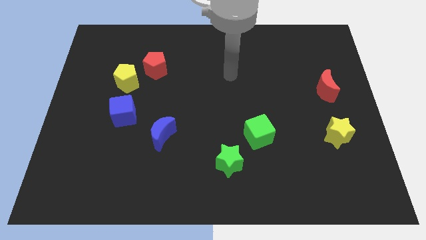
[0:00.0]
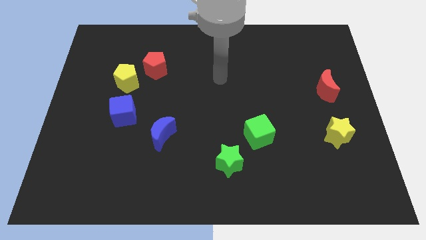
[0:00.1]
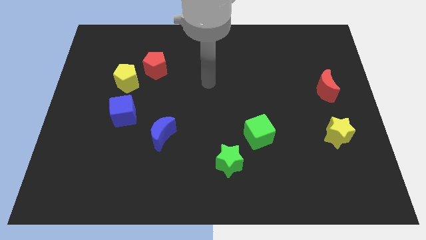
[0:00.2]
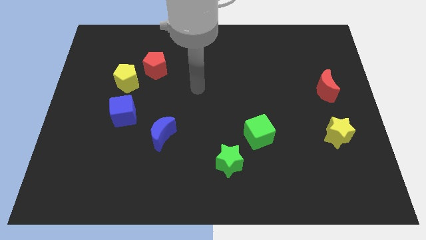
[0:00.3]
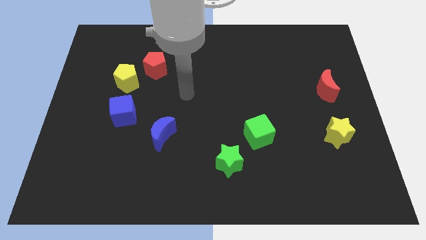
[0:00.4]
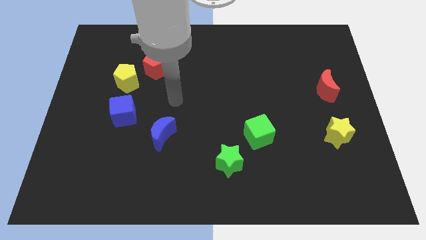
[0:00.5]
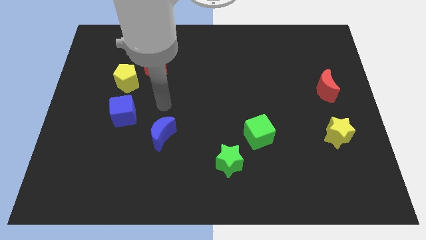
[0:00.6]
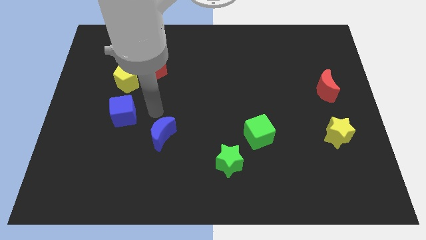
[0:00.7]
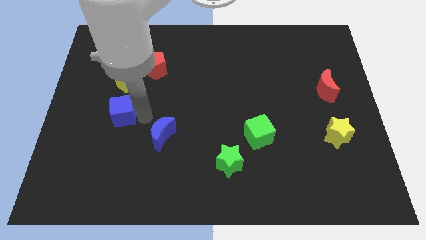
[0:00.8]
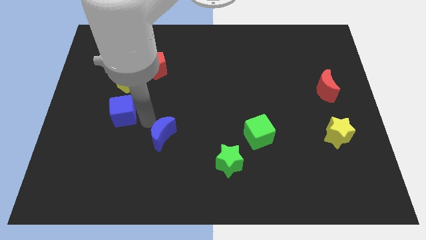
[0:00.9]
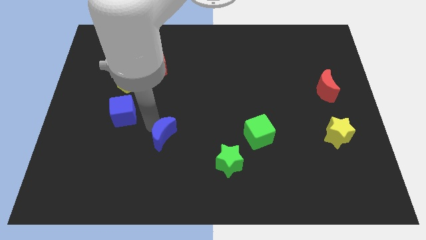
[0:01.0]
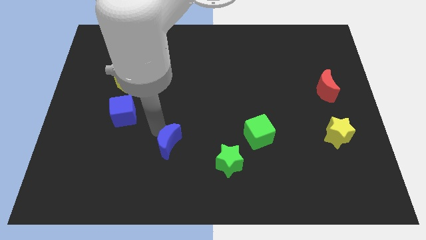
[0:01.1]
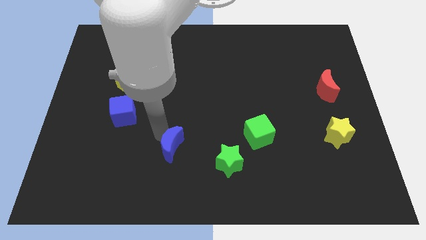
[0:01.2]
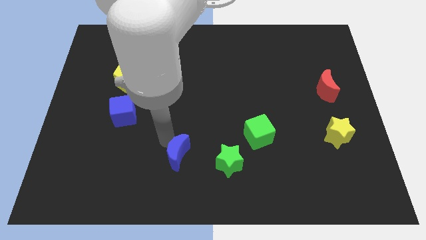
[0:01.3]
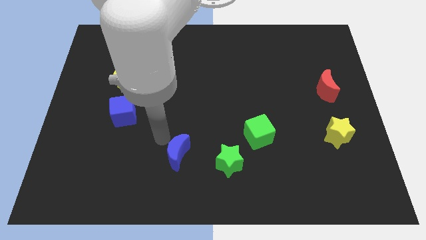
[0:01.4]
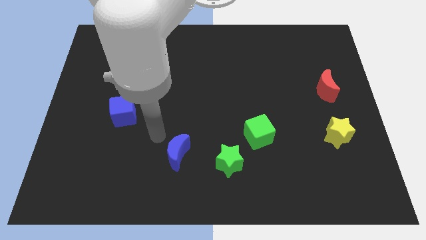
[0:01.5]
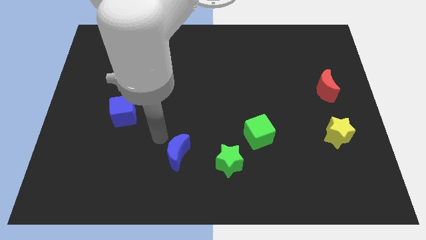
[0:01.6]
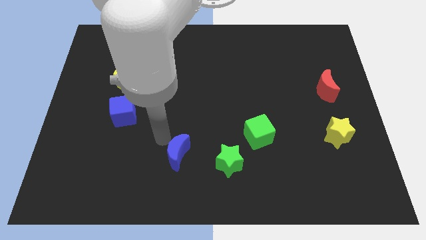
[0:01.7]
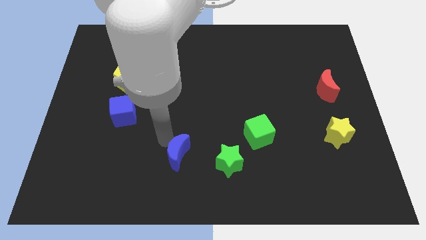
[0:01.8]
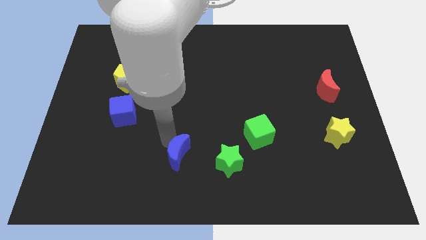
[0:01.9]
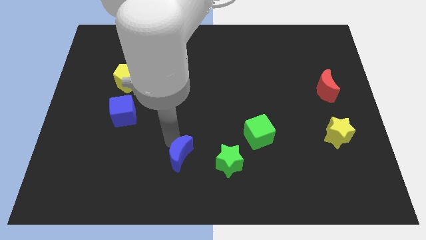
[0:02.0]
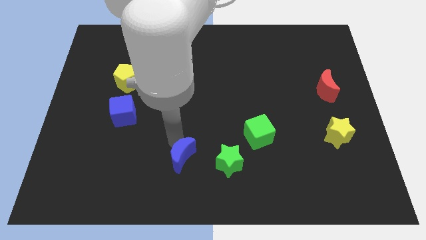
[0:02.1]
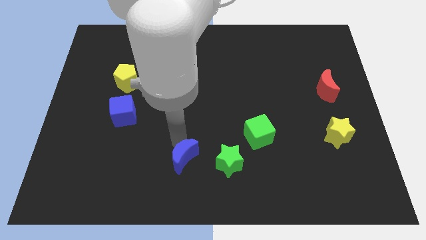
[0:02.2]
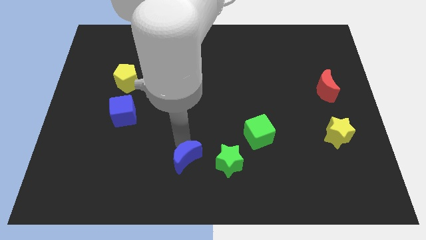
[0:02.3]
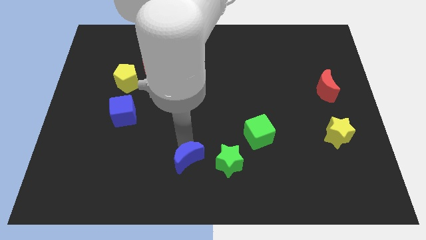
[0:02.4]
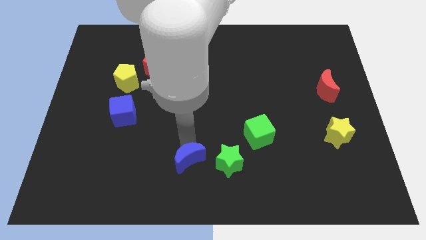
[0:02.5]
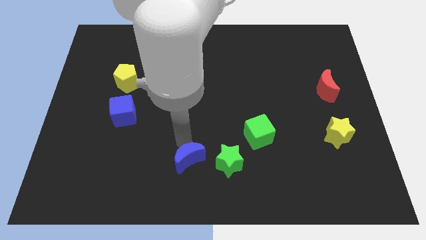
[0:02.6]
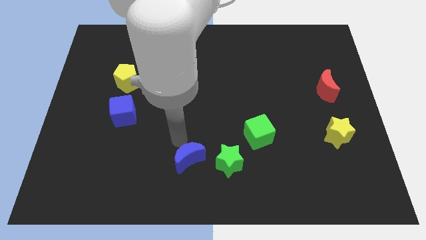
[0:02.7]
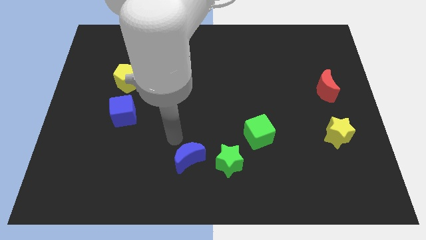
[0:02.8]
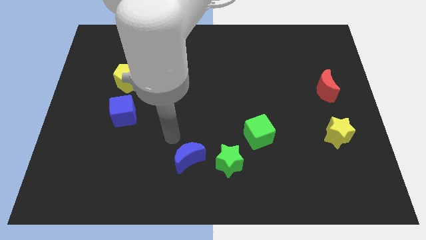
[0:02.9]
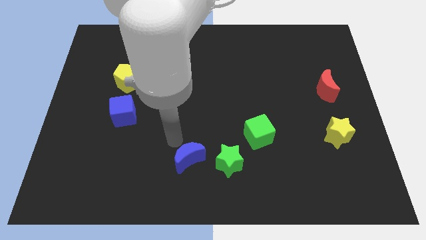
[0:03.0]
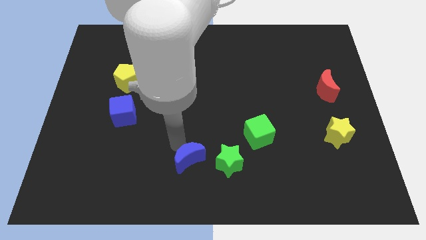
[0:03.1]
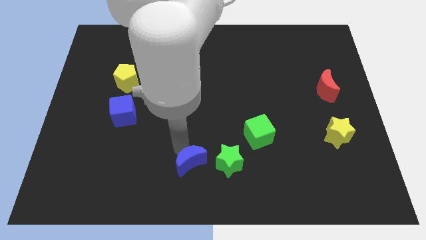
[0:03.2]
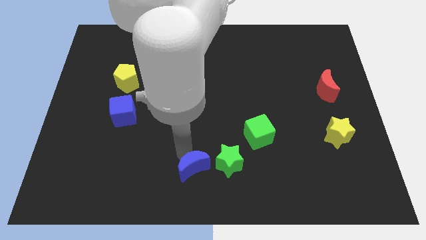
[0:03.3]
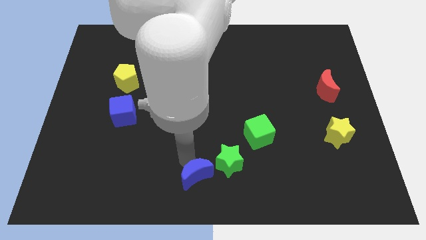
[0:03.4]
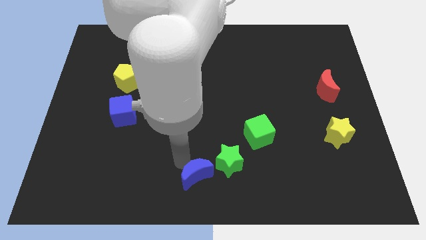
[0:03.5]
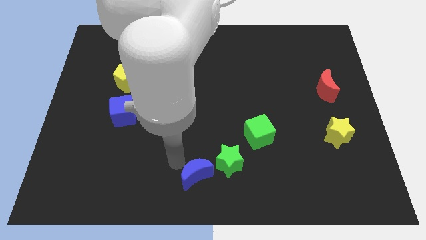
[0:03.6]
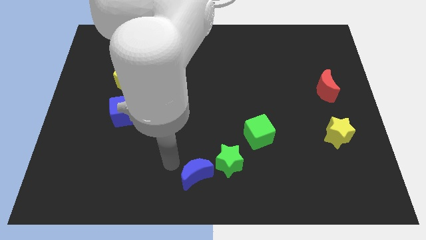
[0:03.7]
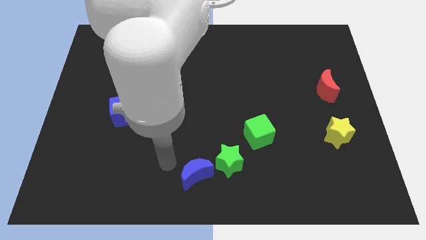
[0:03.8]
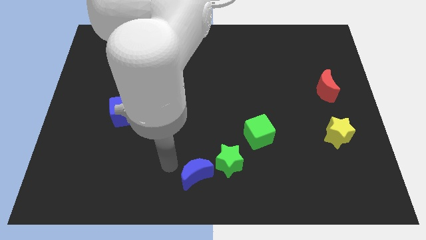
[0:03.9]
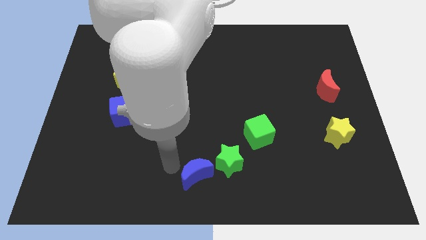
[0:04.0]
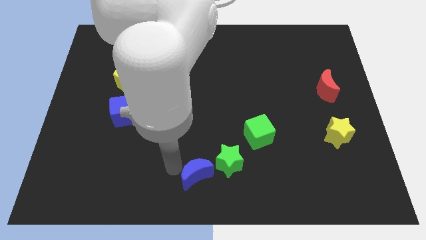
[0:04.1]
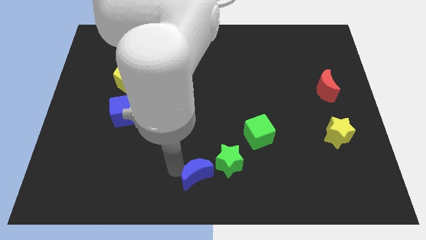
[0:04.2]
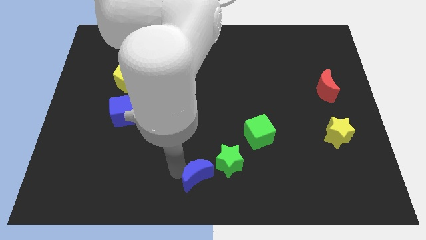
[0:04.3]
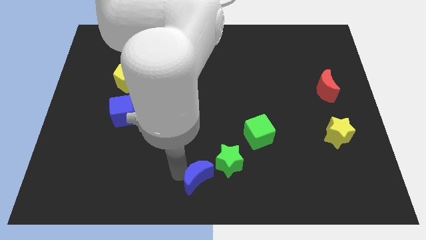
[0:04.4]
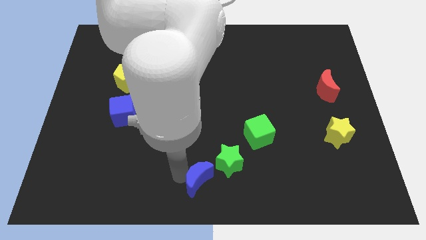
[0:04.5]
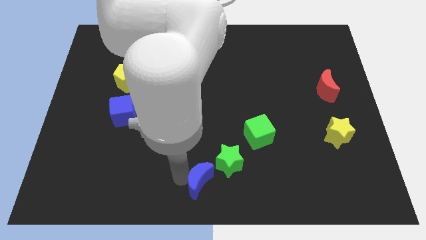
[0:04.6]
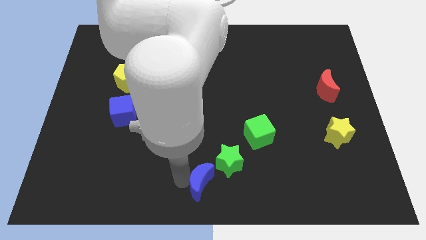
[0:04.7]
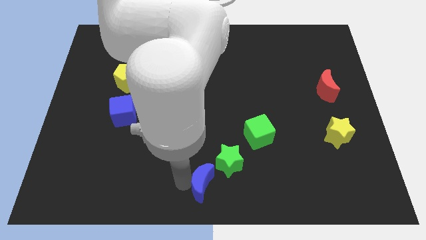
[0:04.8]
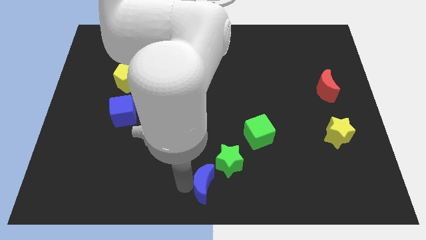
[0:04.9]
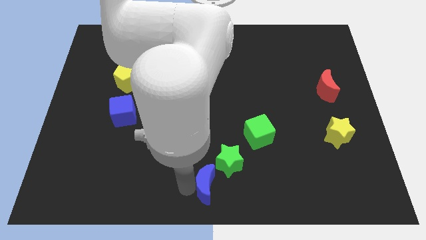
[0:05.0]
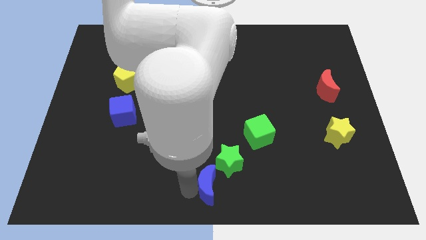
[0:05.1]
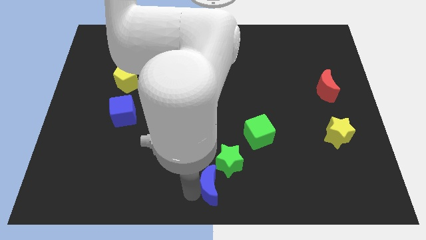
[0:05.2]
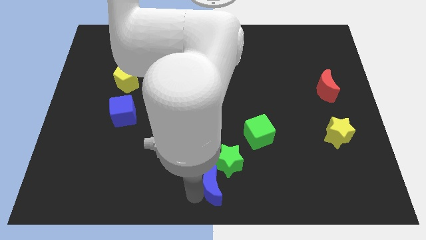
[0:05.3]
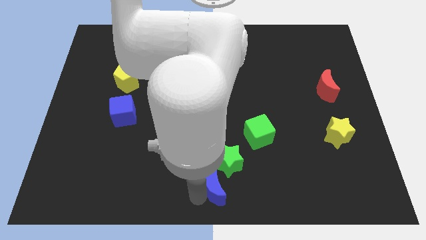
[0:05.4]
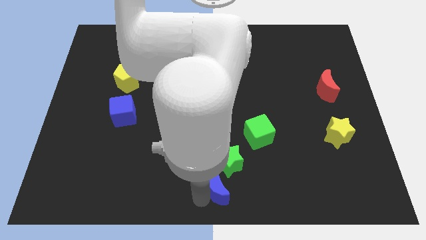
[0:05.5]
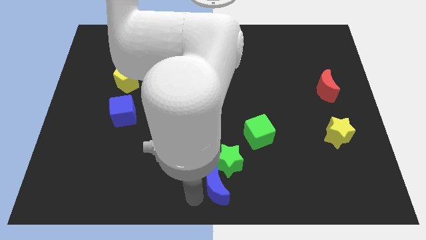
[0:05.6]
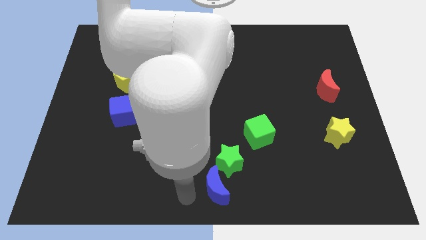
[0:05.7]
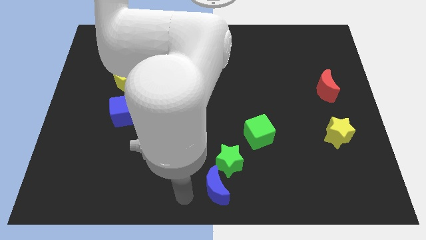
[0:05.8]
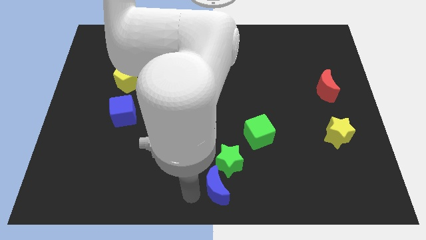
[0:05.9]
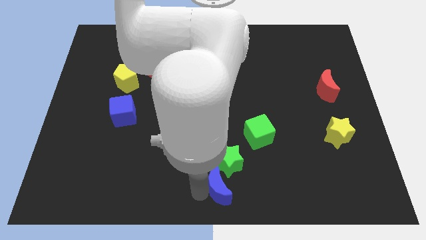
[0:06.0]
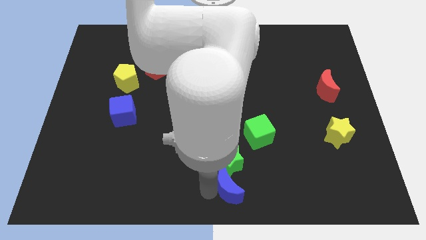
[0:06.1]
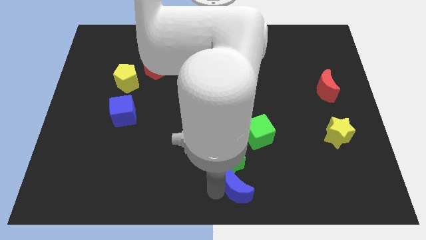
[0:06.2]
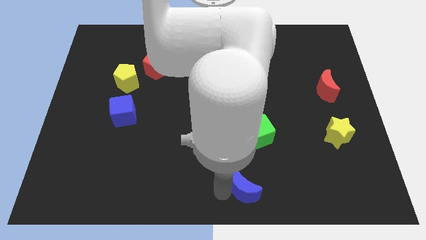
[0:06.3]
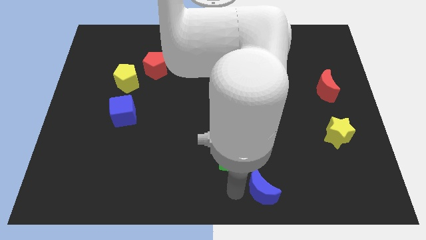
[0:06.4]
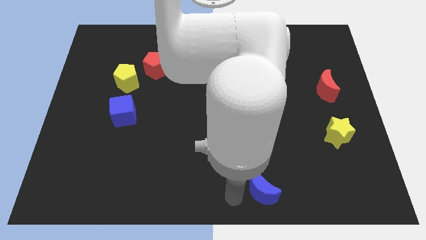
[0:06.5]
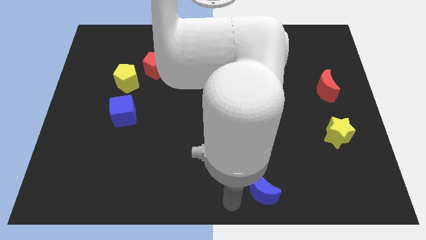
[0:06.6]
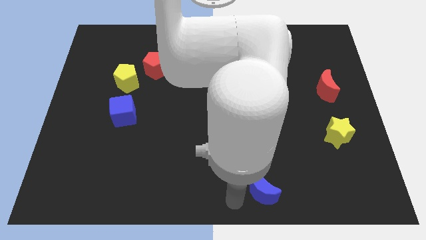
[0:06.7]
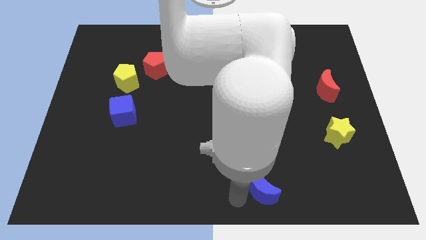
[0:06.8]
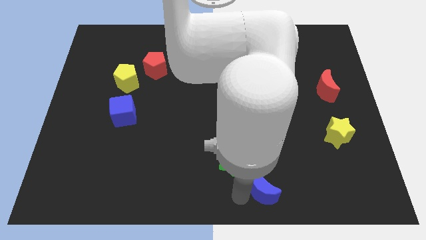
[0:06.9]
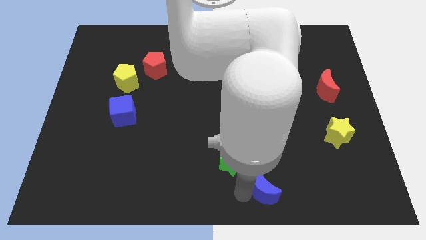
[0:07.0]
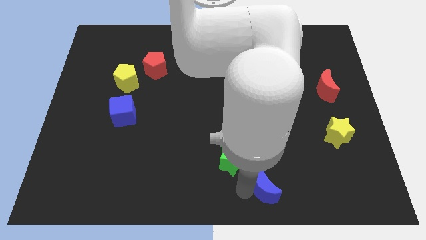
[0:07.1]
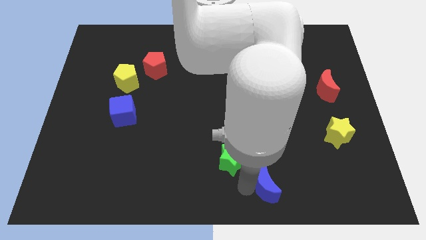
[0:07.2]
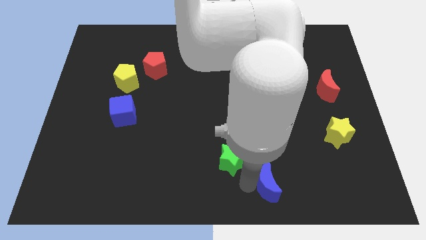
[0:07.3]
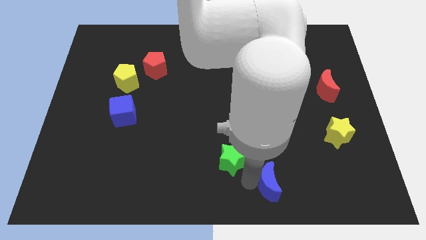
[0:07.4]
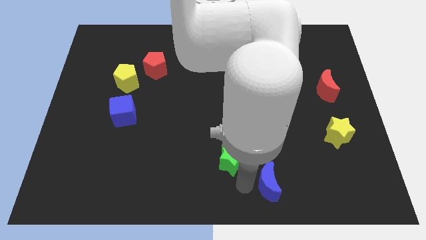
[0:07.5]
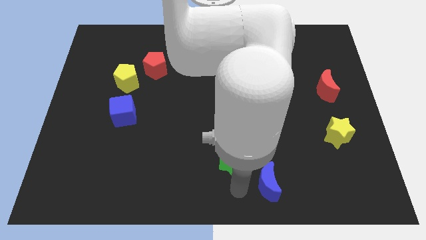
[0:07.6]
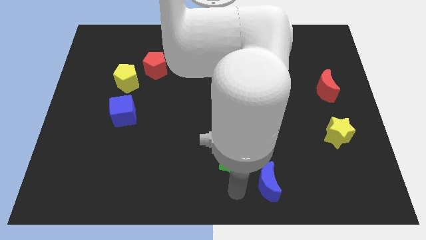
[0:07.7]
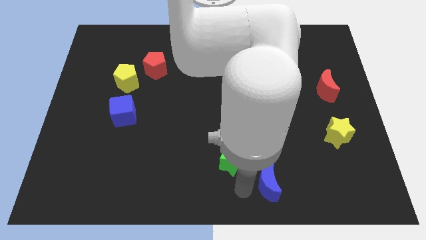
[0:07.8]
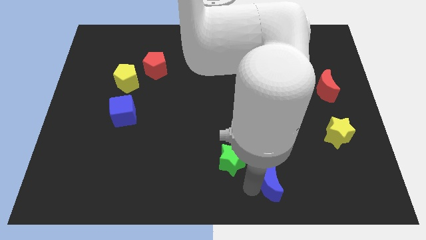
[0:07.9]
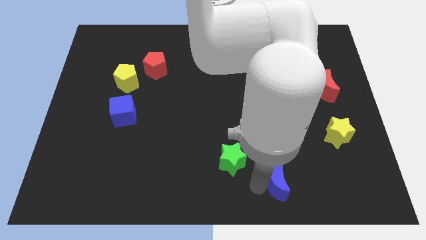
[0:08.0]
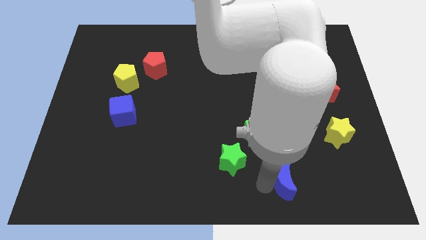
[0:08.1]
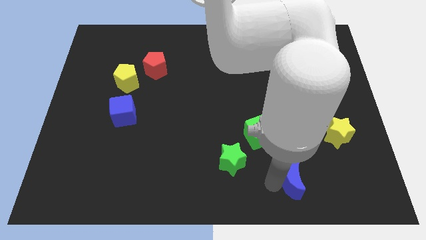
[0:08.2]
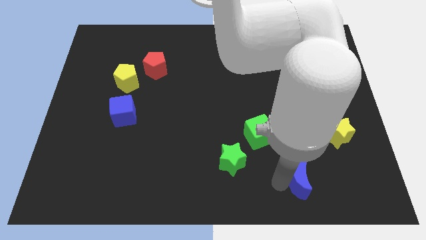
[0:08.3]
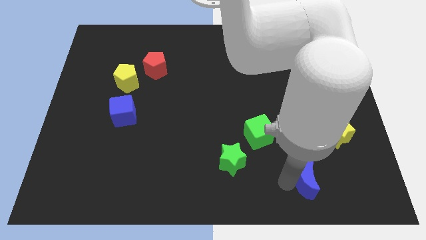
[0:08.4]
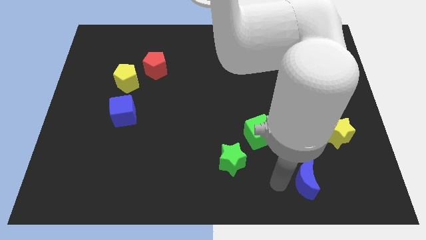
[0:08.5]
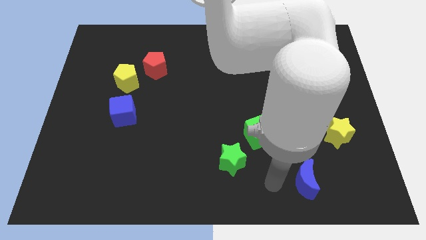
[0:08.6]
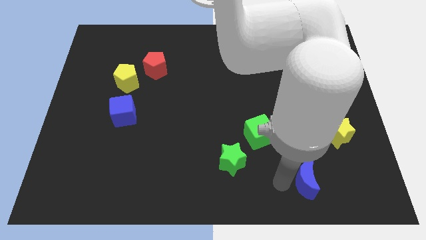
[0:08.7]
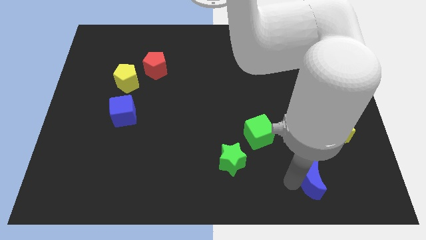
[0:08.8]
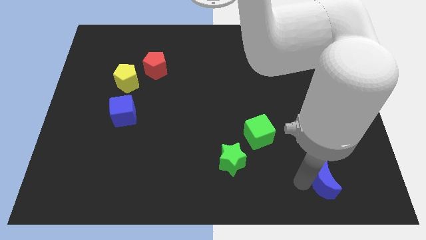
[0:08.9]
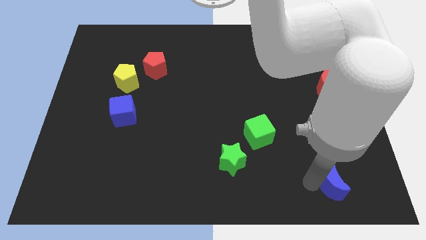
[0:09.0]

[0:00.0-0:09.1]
slide the blue moon to the bottom of the yellow star
